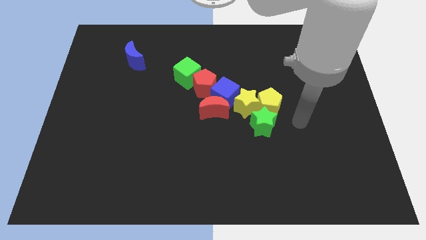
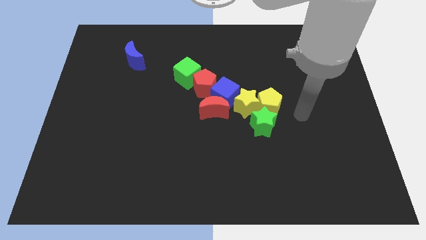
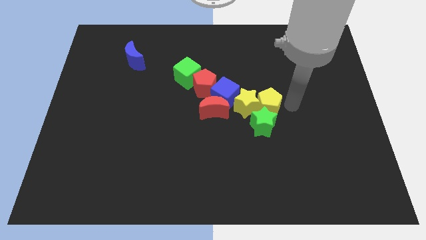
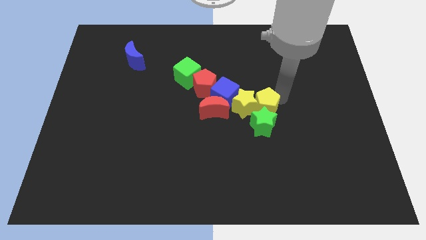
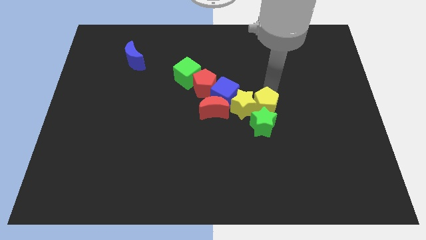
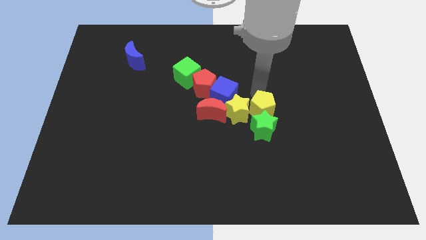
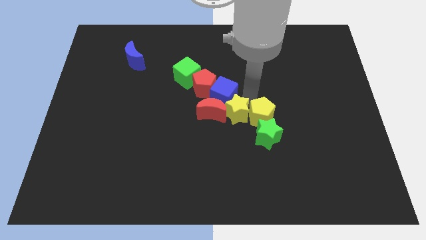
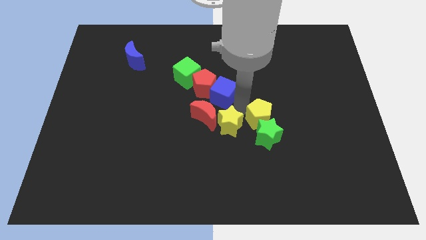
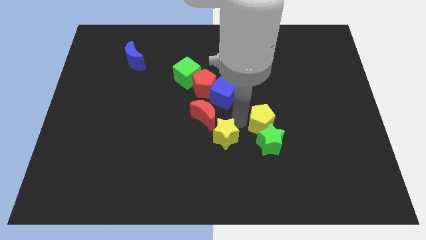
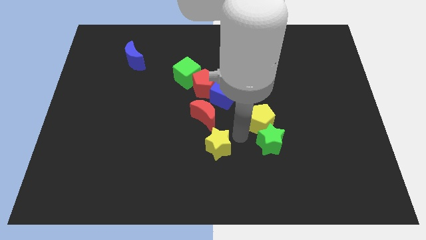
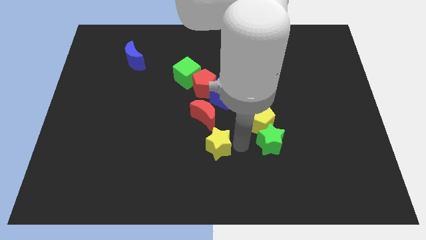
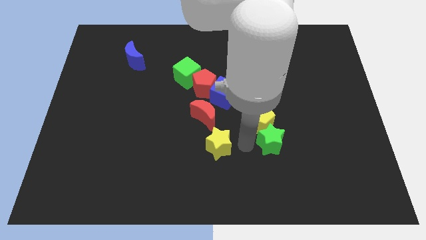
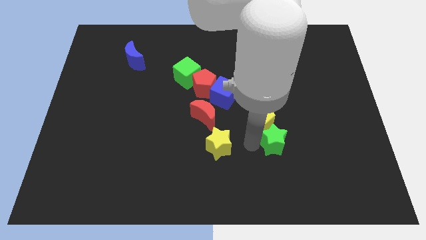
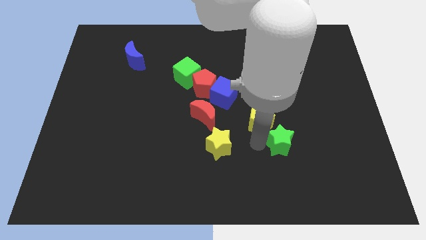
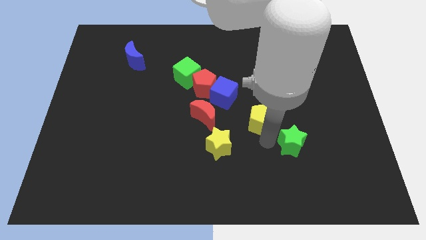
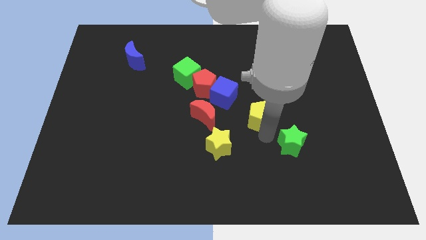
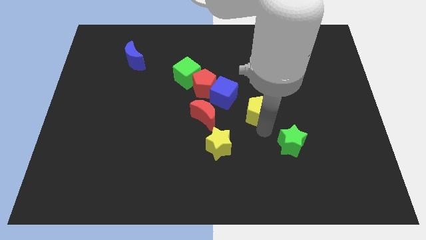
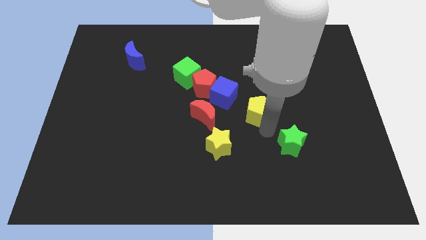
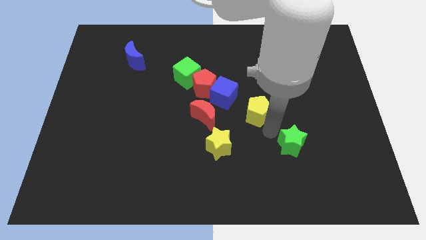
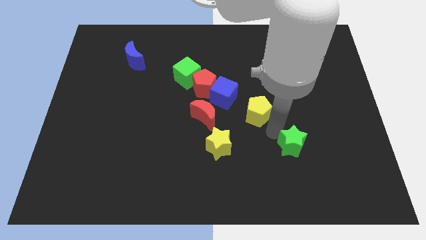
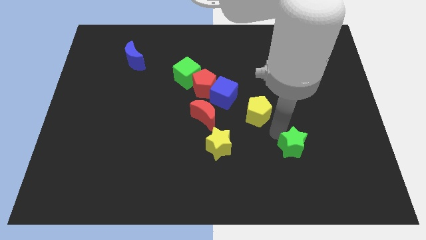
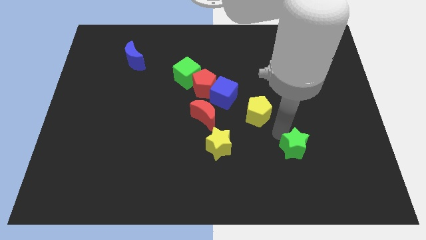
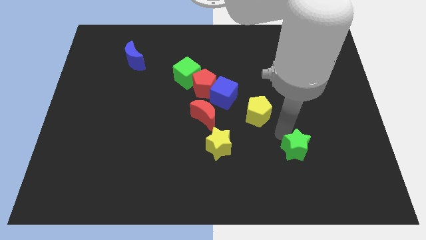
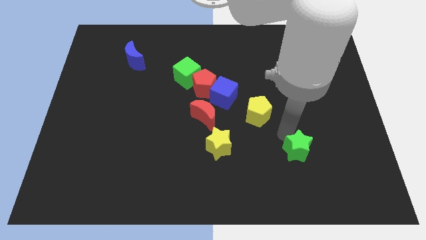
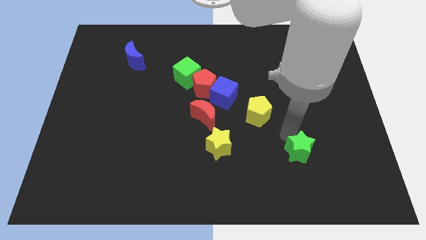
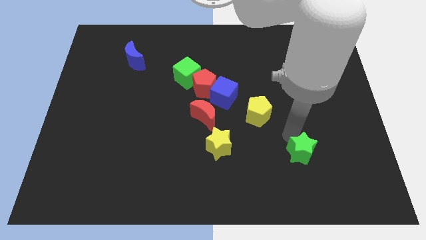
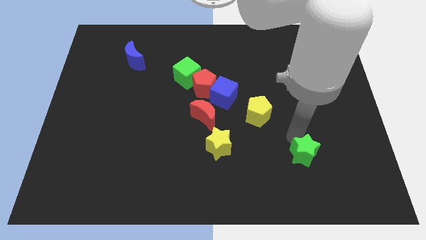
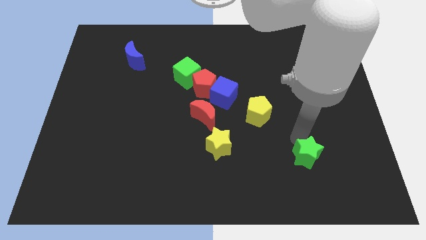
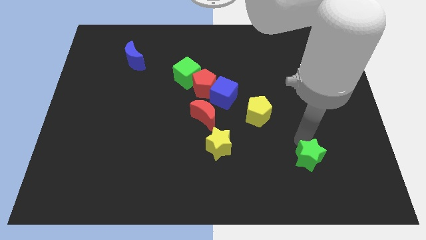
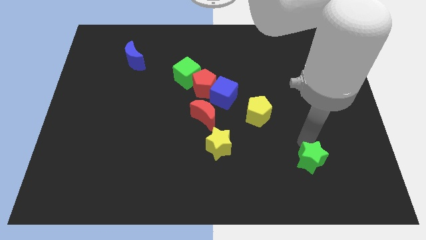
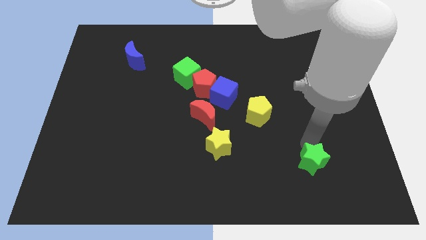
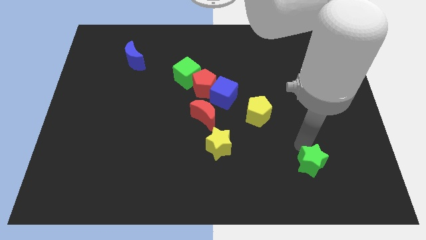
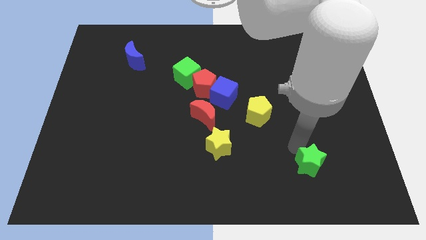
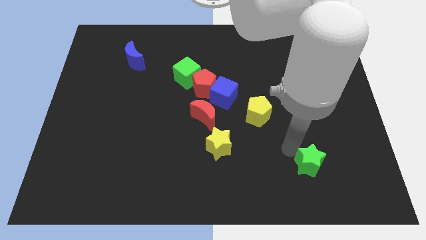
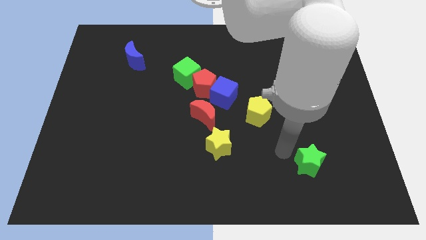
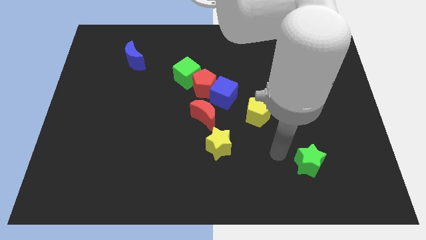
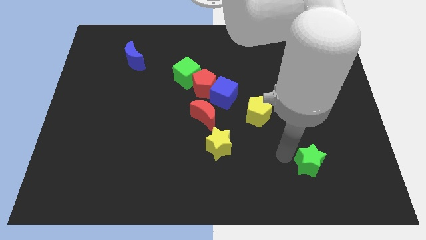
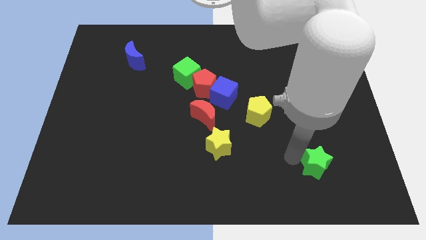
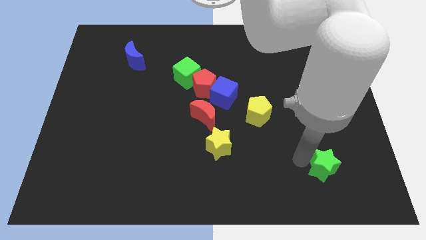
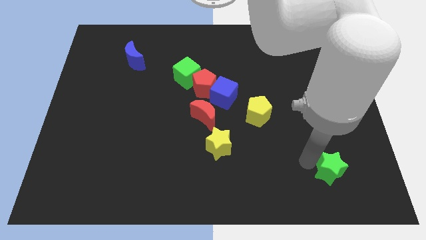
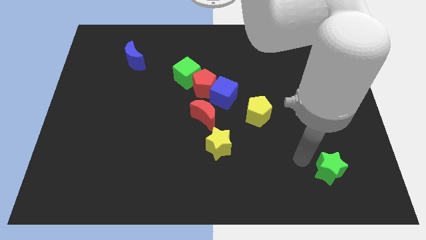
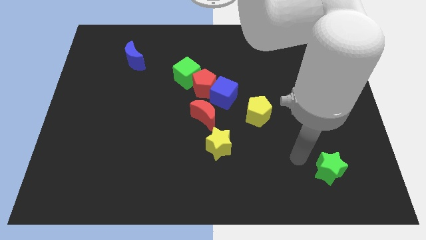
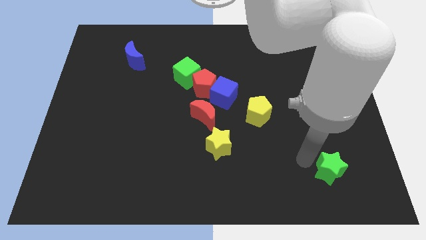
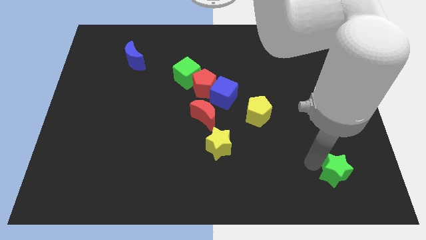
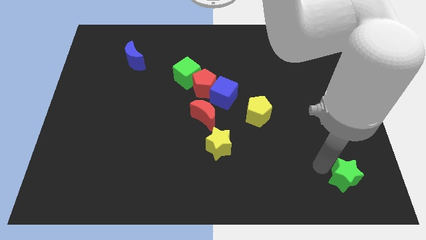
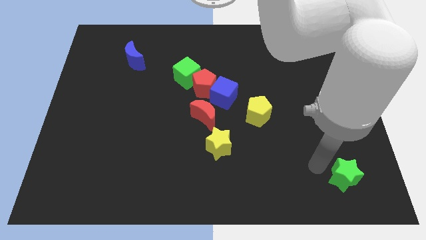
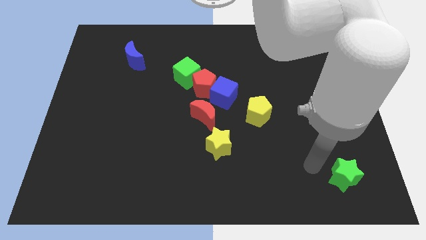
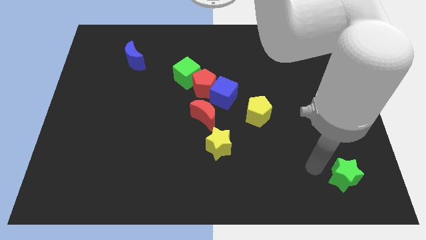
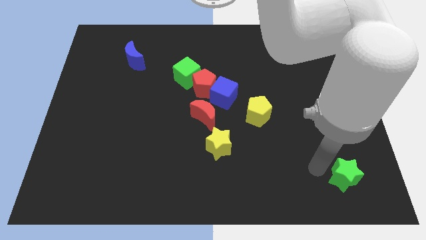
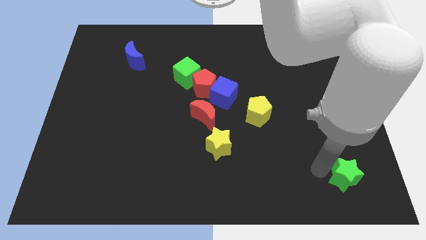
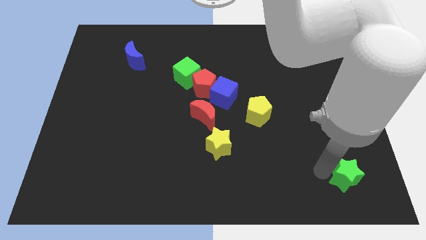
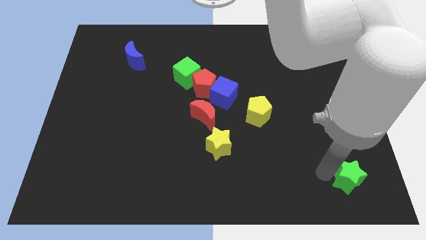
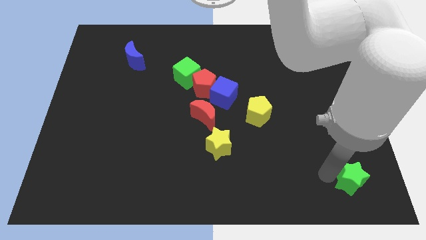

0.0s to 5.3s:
push the green star to the bottom right corner

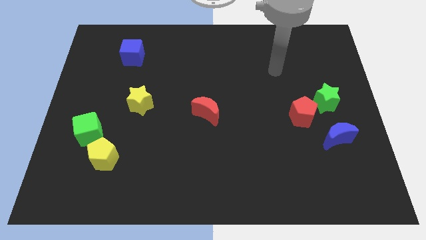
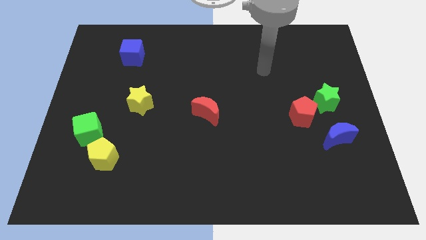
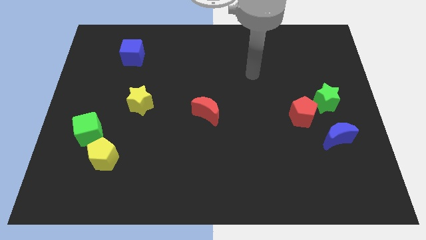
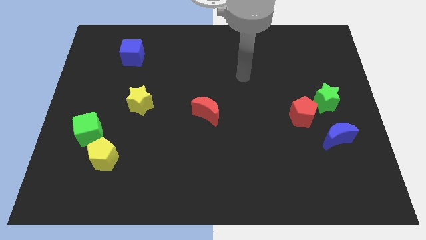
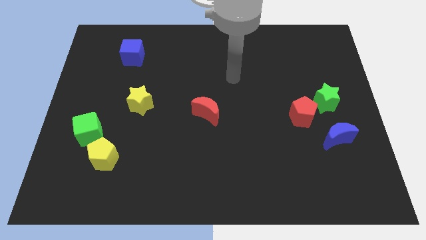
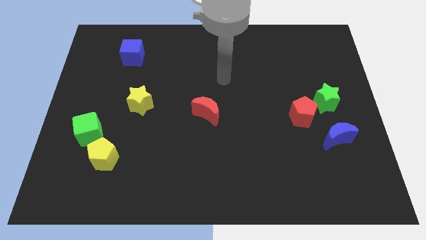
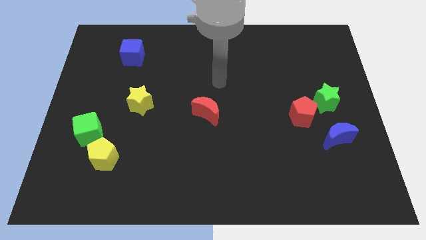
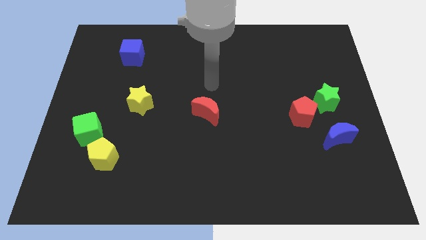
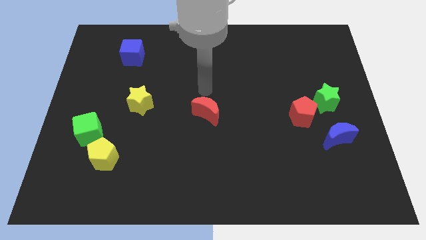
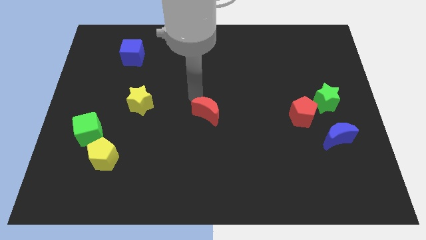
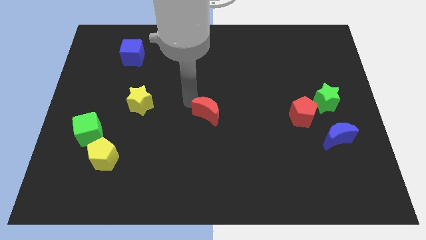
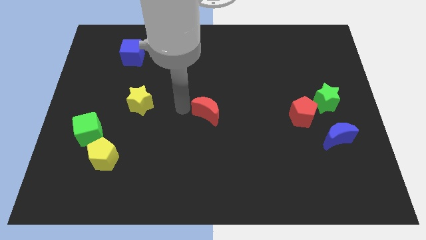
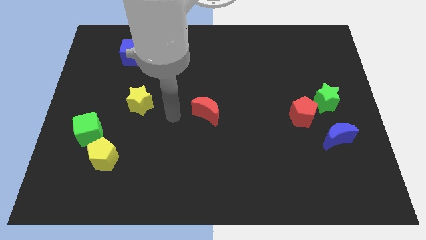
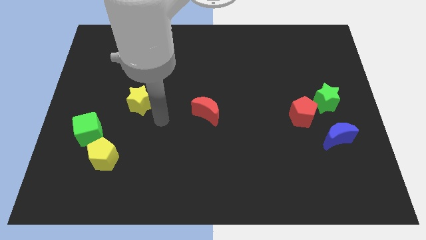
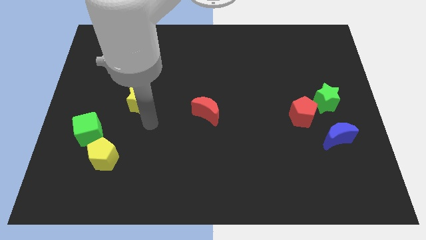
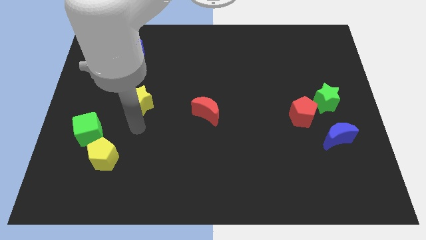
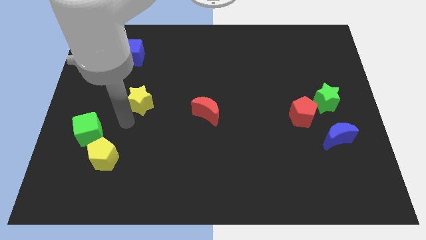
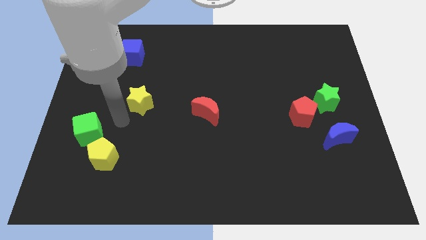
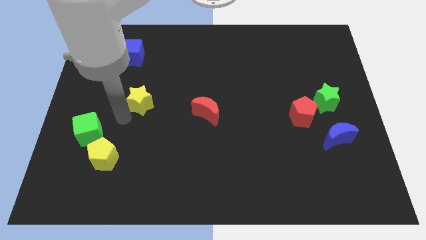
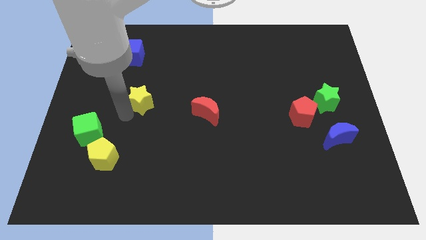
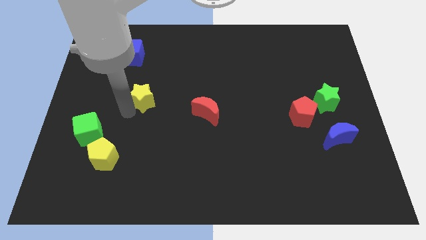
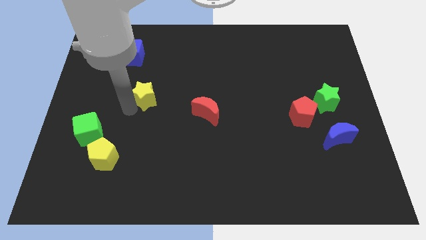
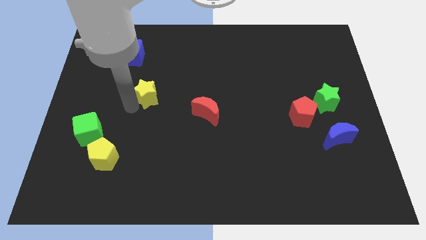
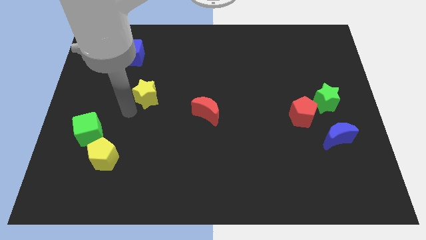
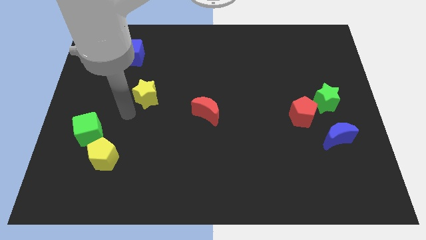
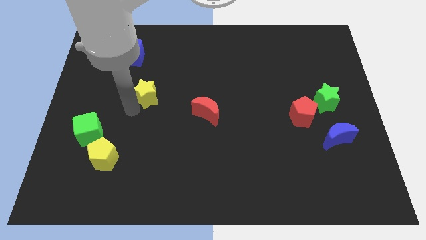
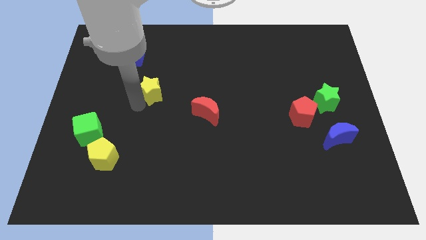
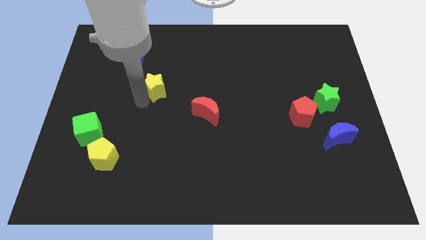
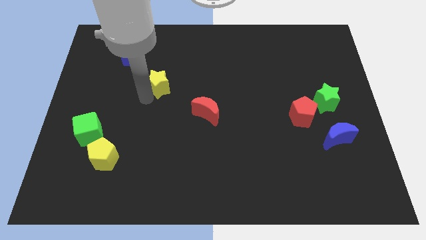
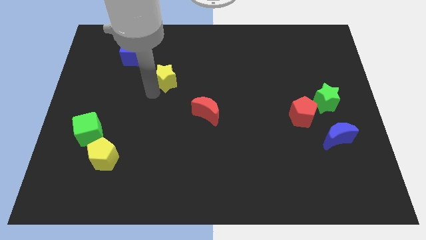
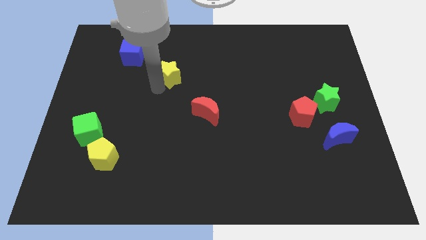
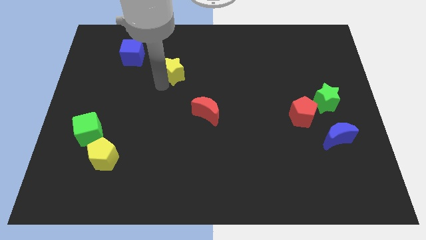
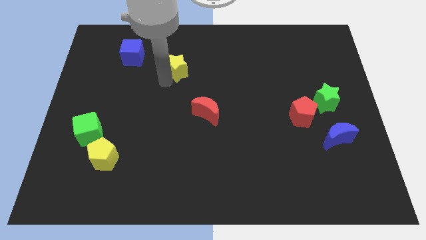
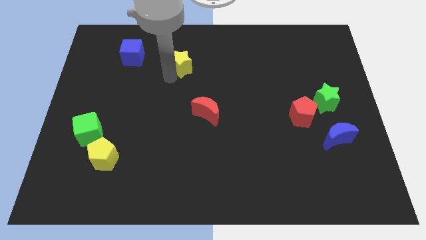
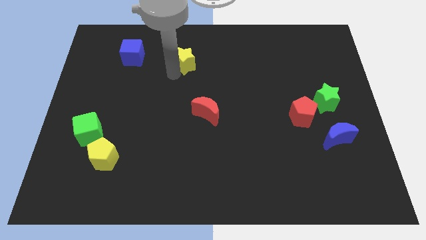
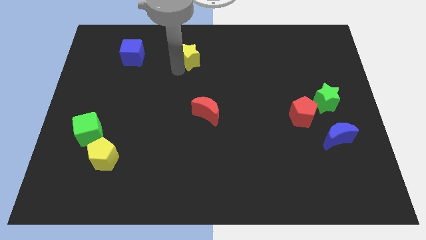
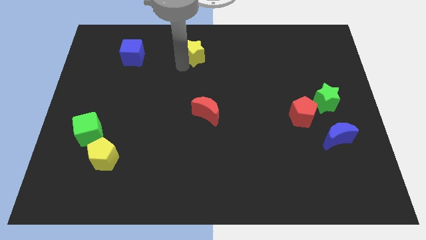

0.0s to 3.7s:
push the yellow star to the towards your base
